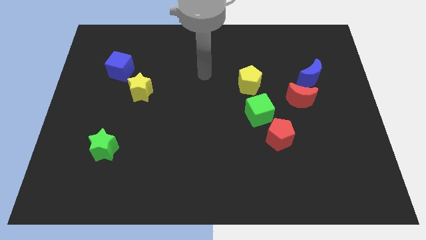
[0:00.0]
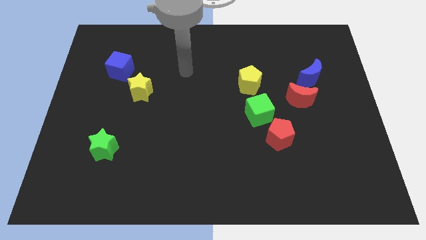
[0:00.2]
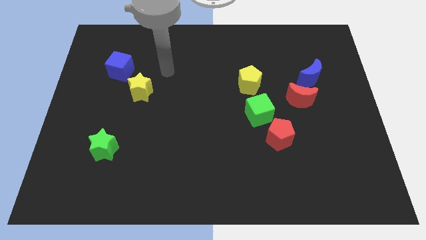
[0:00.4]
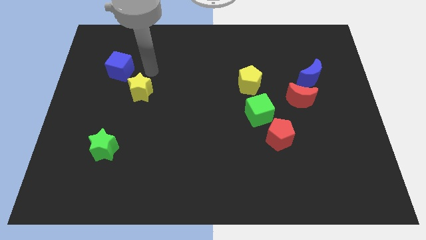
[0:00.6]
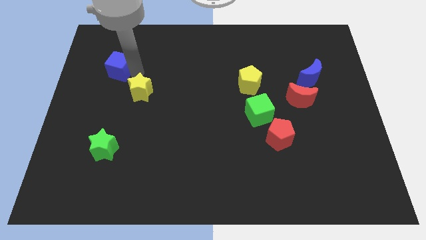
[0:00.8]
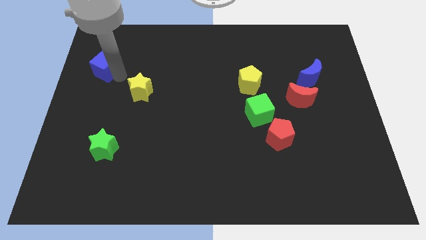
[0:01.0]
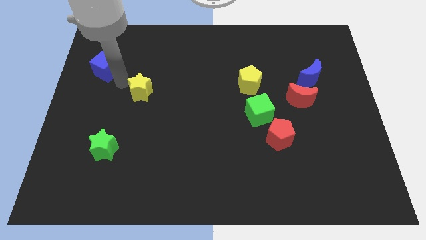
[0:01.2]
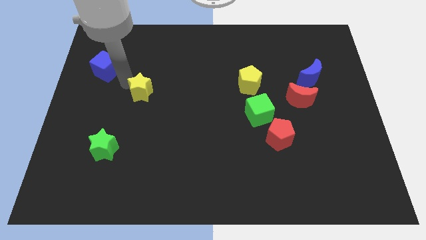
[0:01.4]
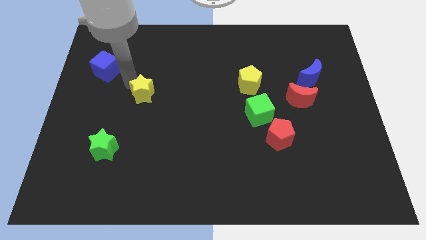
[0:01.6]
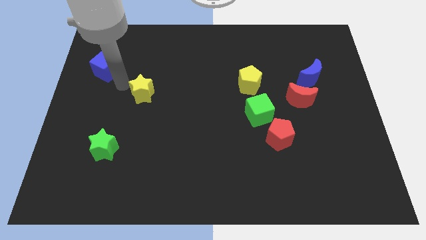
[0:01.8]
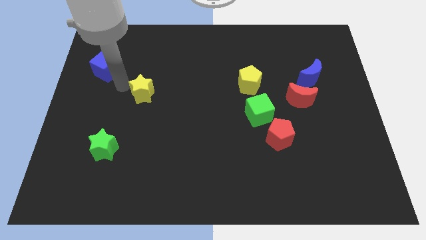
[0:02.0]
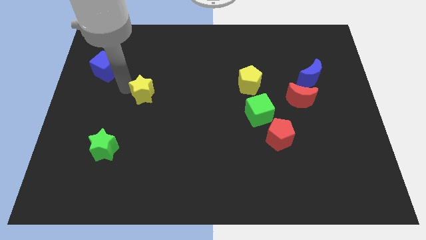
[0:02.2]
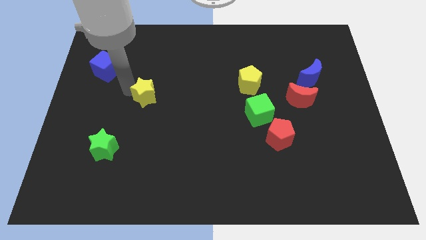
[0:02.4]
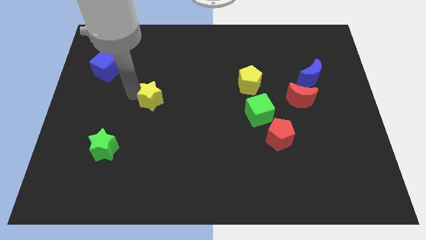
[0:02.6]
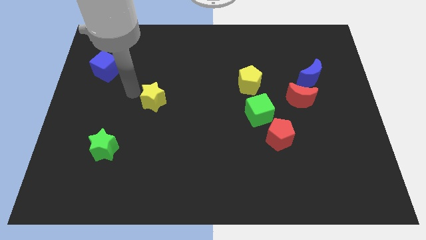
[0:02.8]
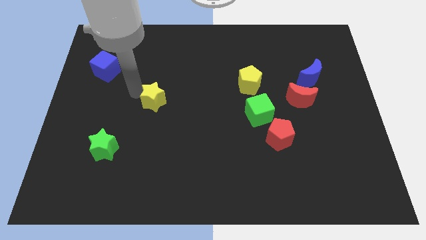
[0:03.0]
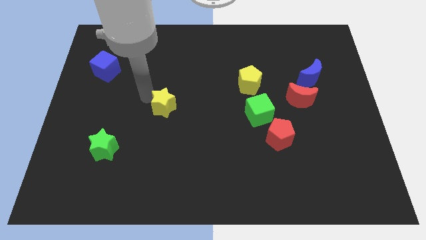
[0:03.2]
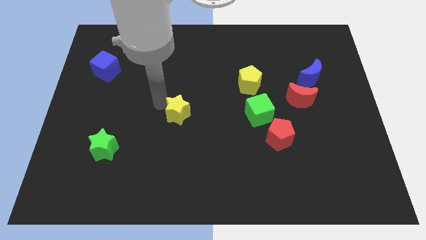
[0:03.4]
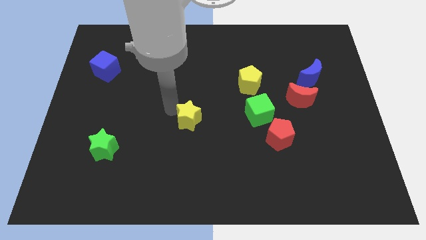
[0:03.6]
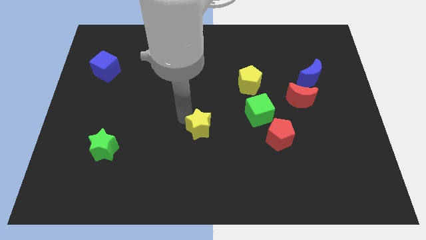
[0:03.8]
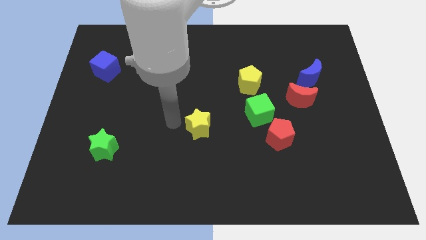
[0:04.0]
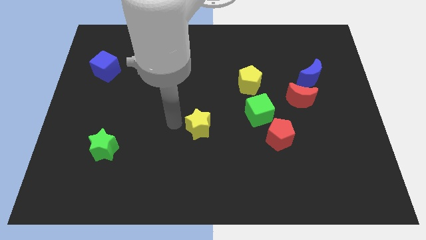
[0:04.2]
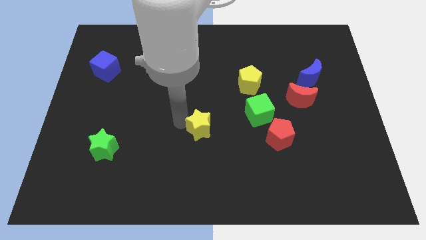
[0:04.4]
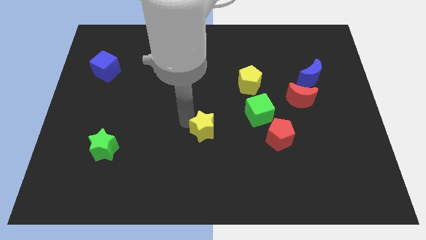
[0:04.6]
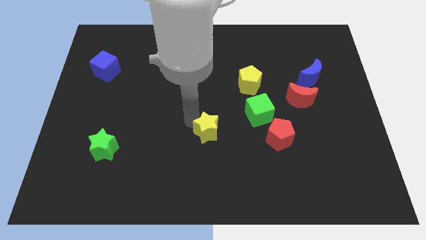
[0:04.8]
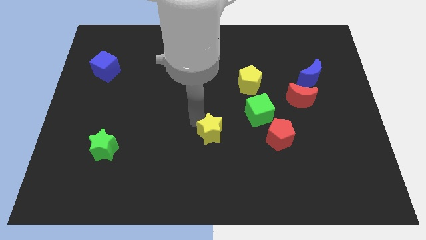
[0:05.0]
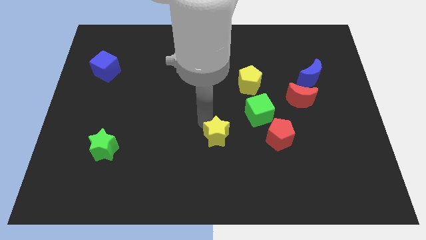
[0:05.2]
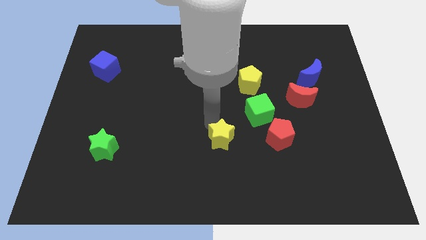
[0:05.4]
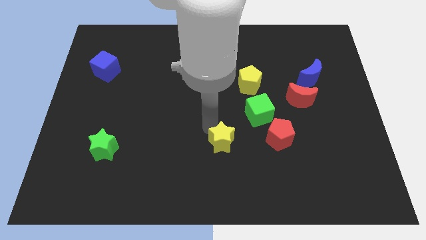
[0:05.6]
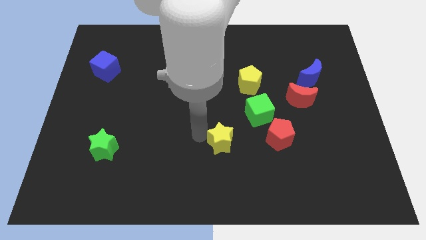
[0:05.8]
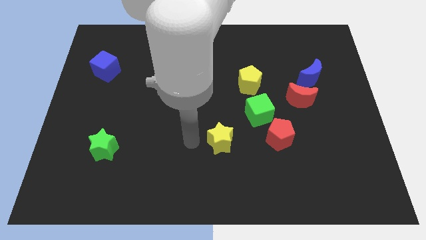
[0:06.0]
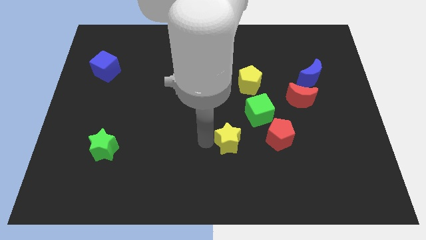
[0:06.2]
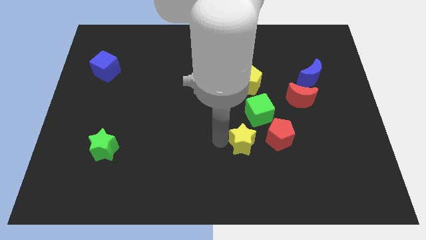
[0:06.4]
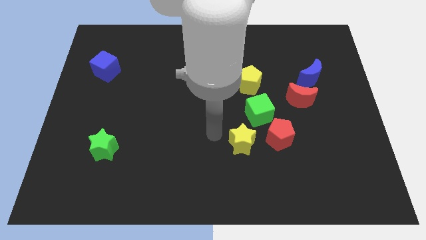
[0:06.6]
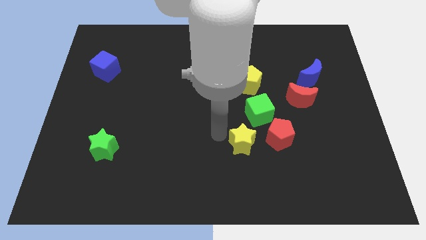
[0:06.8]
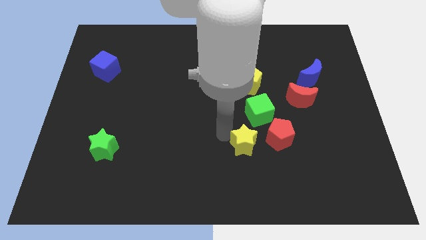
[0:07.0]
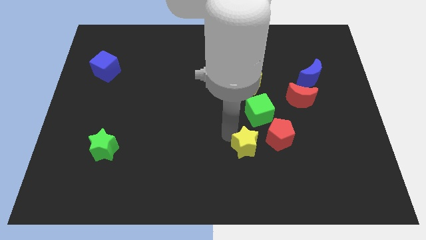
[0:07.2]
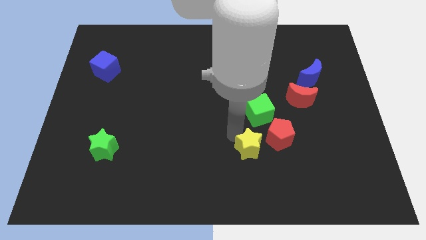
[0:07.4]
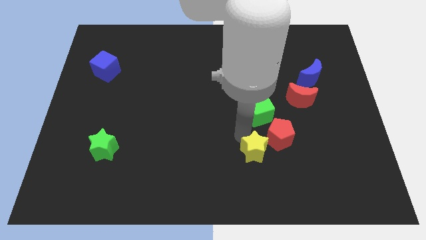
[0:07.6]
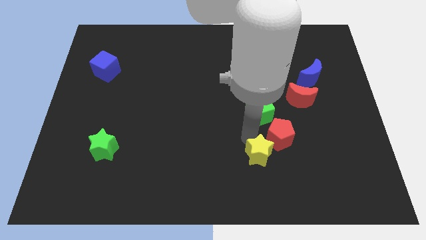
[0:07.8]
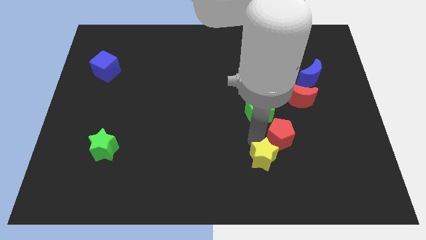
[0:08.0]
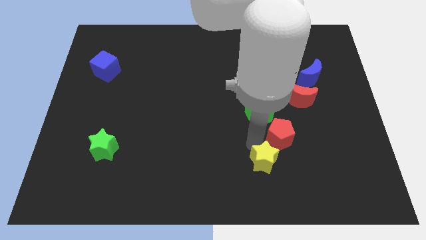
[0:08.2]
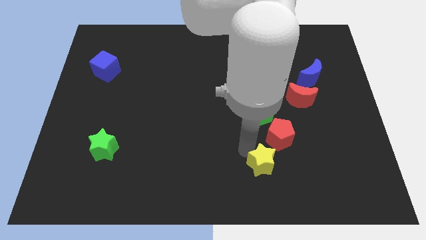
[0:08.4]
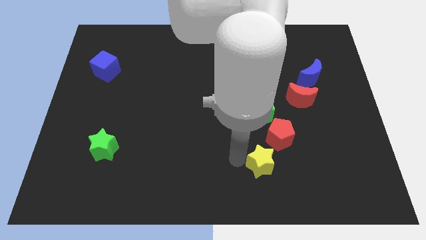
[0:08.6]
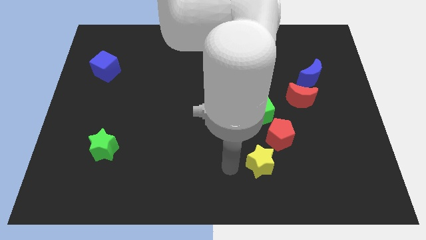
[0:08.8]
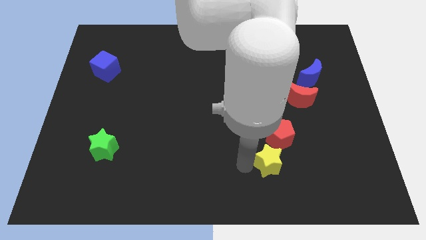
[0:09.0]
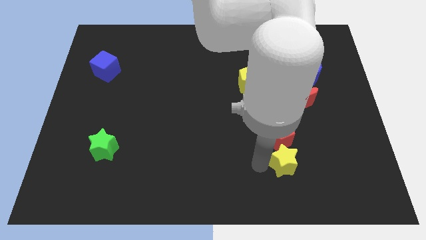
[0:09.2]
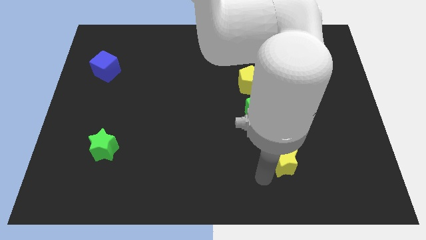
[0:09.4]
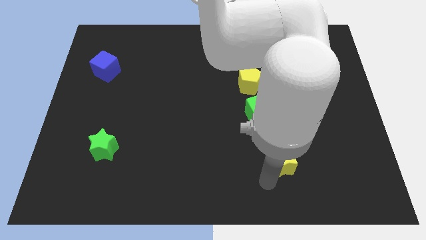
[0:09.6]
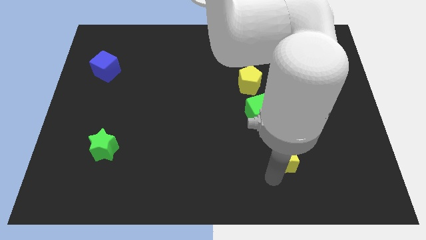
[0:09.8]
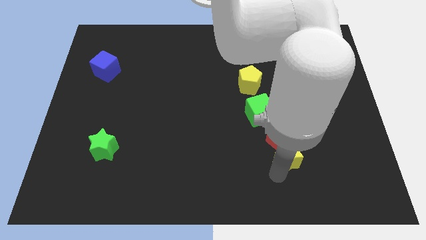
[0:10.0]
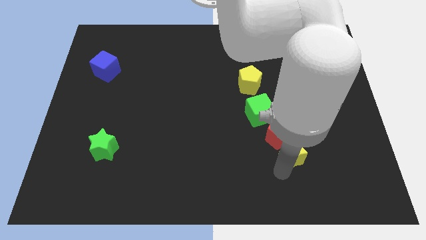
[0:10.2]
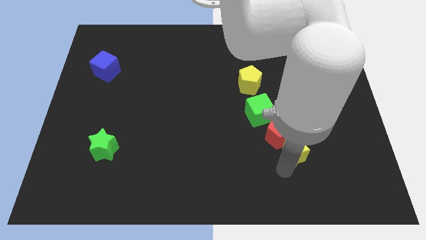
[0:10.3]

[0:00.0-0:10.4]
put the yellow star to the bottom right side of the green cube

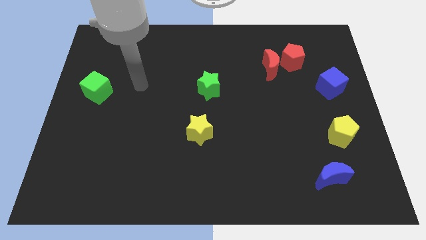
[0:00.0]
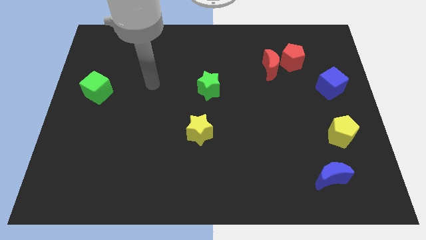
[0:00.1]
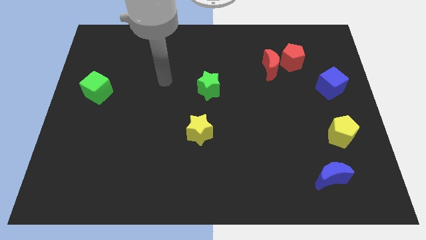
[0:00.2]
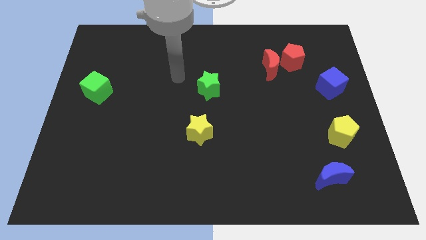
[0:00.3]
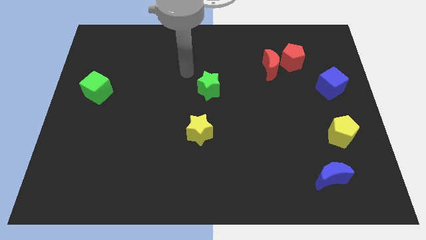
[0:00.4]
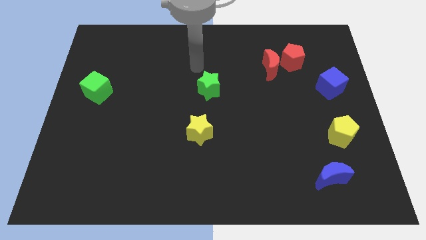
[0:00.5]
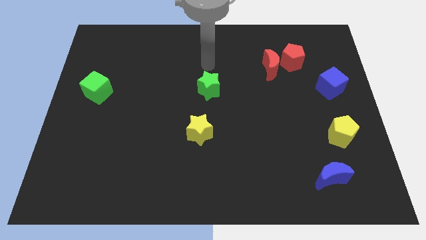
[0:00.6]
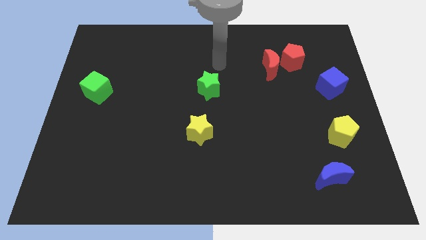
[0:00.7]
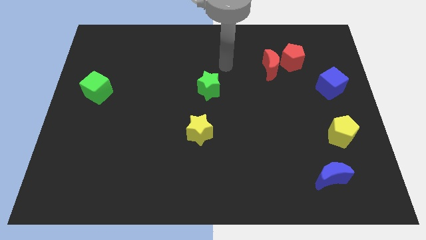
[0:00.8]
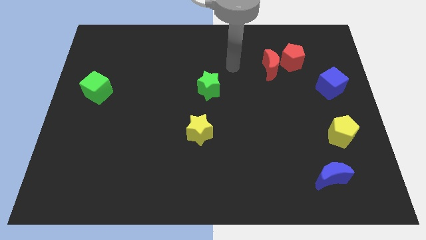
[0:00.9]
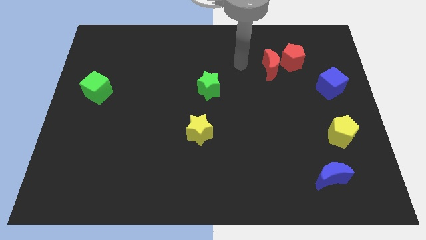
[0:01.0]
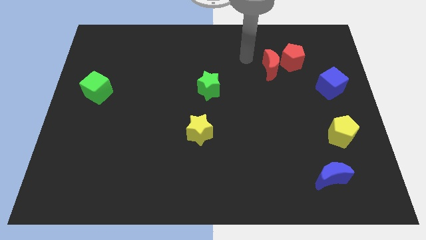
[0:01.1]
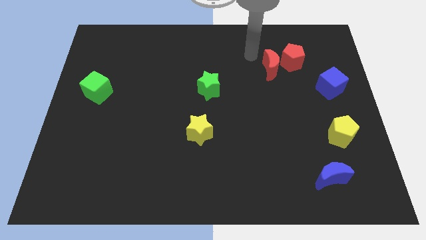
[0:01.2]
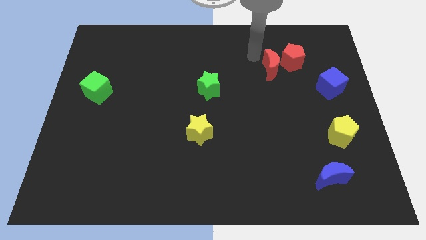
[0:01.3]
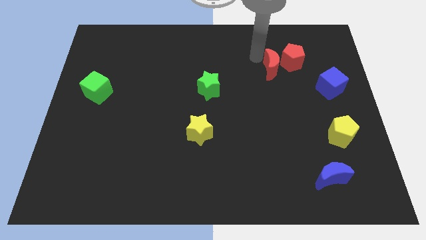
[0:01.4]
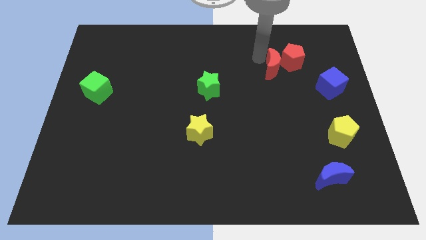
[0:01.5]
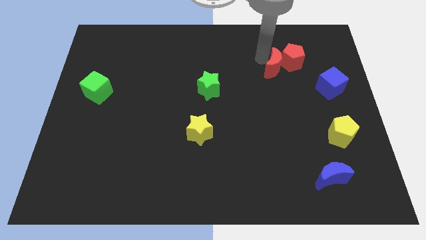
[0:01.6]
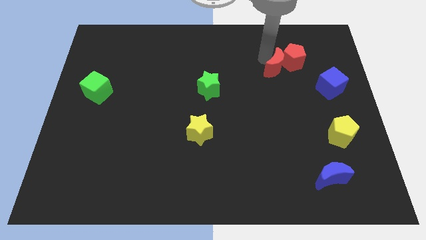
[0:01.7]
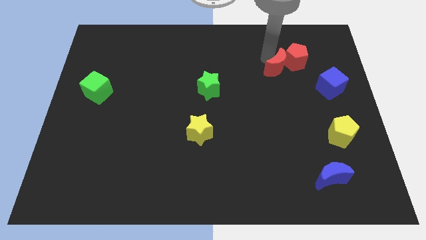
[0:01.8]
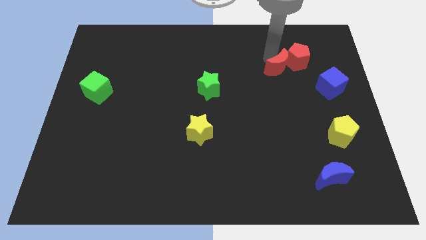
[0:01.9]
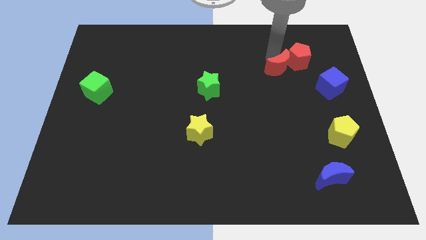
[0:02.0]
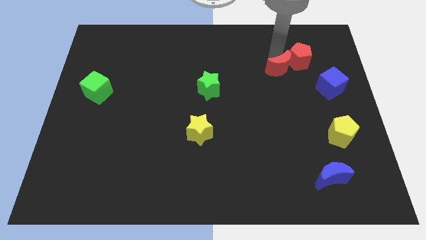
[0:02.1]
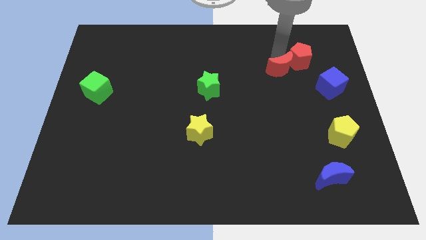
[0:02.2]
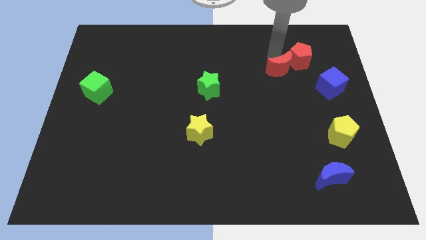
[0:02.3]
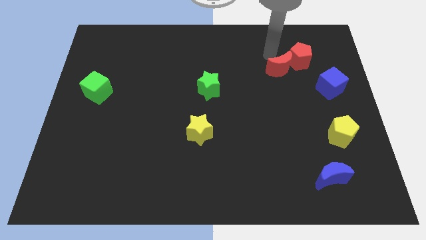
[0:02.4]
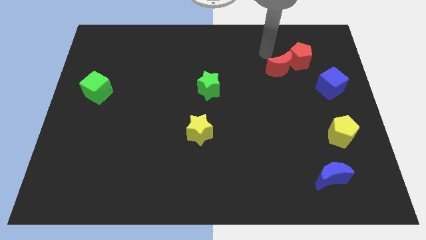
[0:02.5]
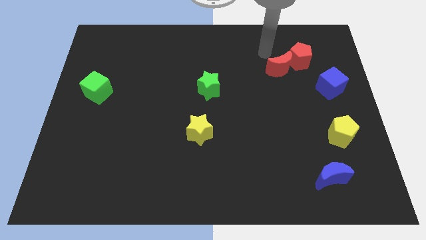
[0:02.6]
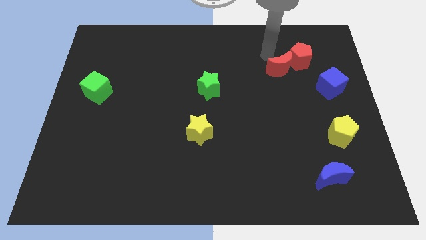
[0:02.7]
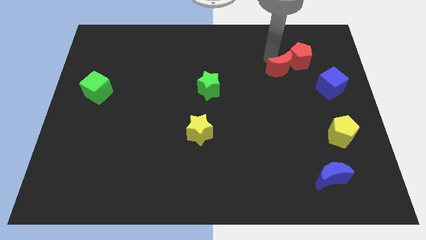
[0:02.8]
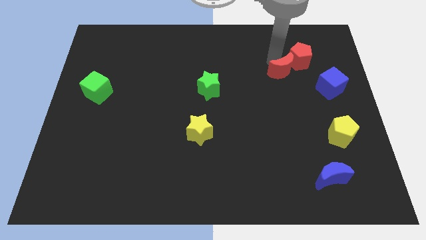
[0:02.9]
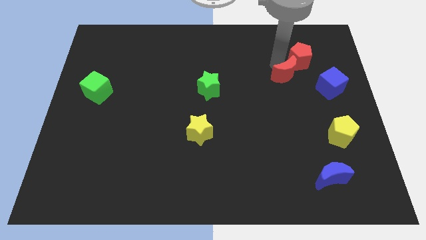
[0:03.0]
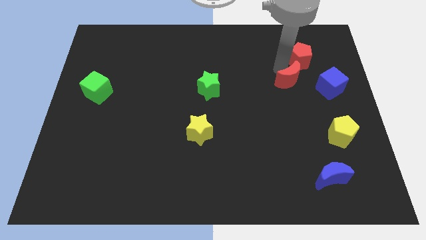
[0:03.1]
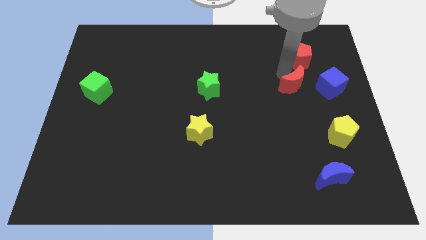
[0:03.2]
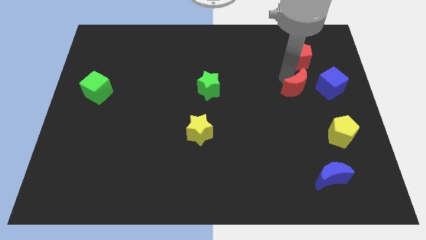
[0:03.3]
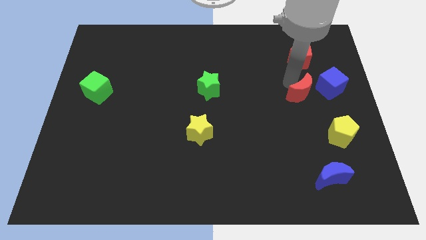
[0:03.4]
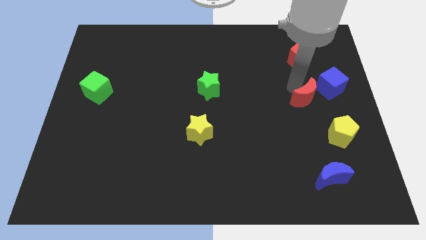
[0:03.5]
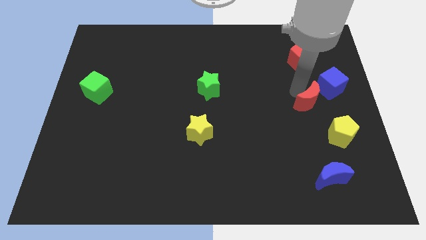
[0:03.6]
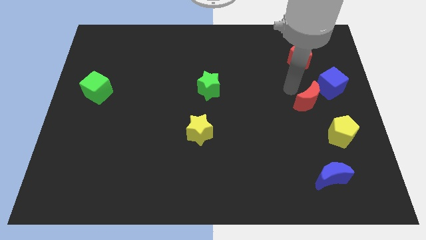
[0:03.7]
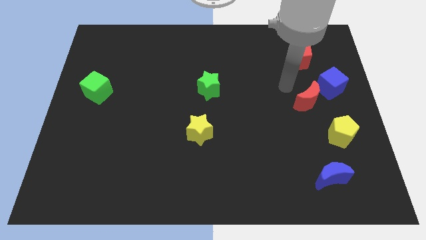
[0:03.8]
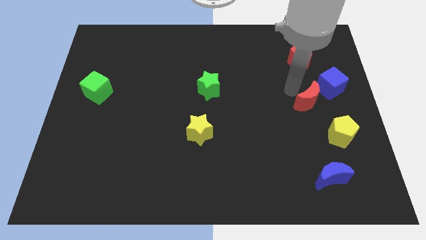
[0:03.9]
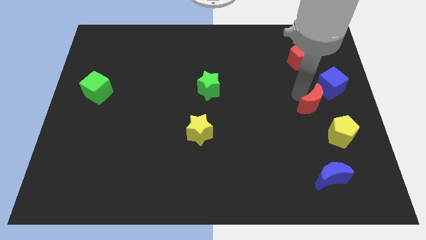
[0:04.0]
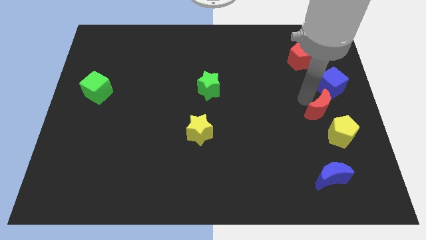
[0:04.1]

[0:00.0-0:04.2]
put the red moon to the bottom of the blue cube
